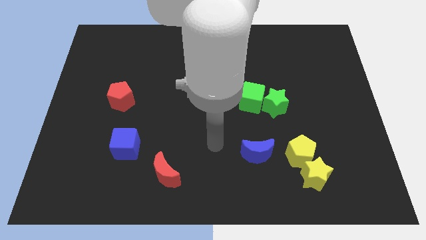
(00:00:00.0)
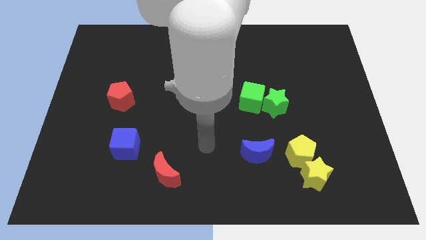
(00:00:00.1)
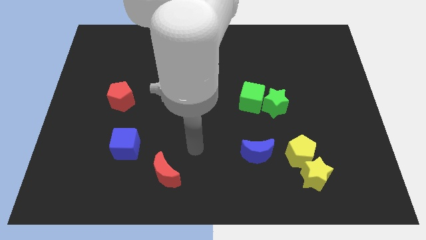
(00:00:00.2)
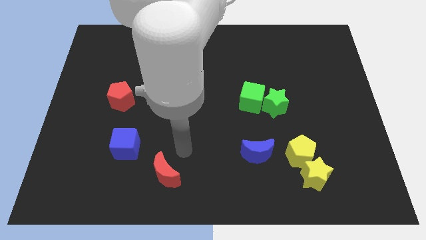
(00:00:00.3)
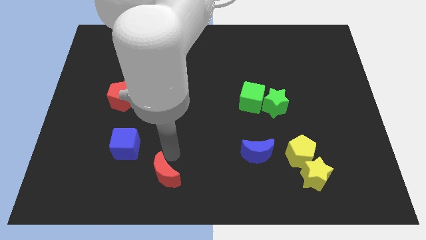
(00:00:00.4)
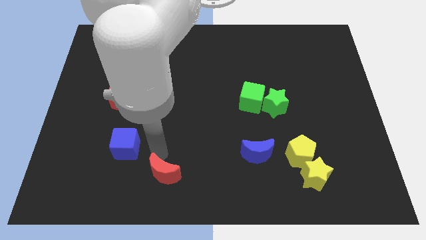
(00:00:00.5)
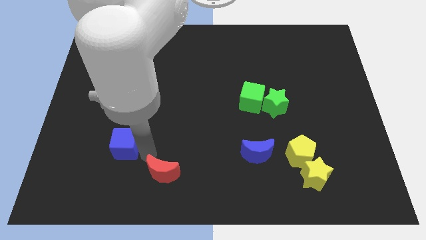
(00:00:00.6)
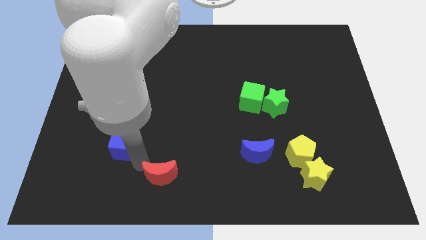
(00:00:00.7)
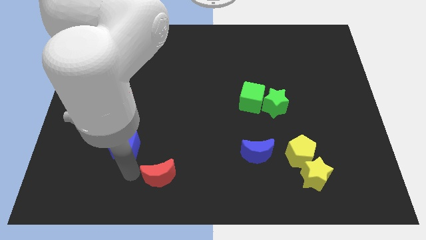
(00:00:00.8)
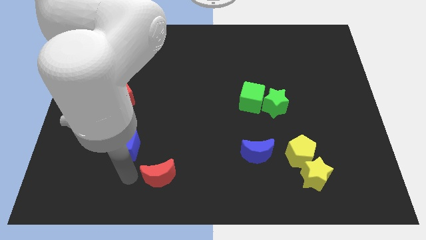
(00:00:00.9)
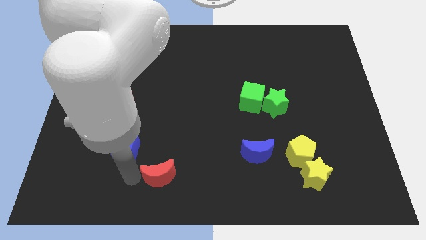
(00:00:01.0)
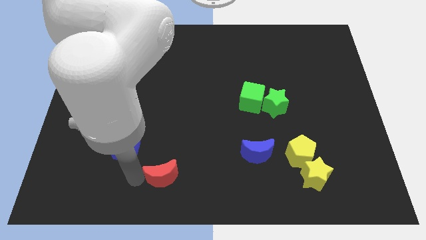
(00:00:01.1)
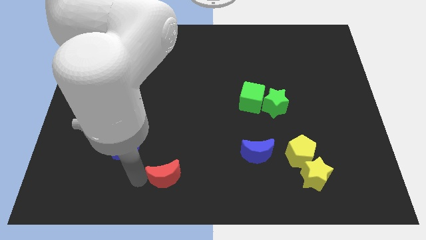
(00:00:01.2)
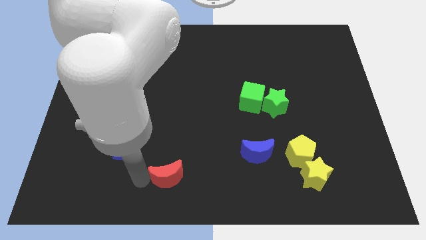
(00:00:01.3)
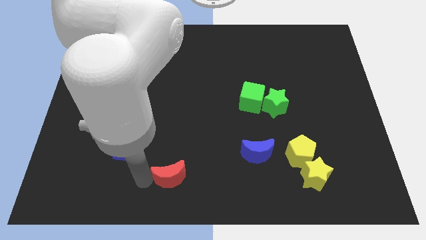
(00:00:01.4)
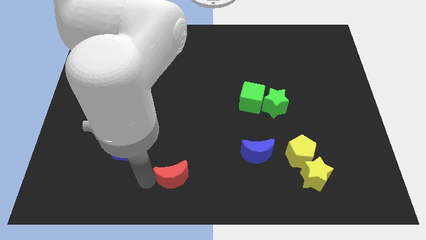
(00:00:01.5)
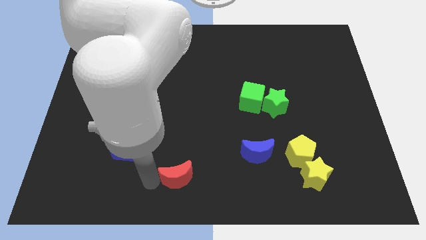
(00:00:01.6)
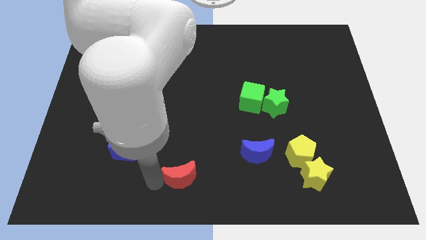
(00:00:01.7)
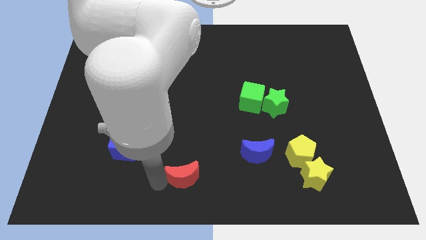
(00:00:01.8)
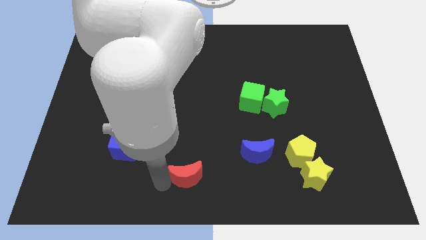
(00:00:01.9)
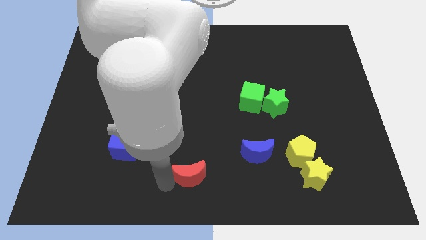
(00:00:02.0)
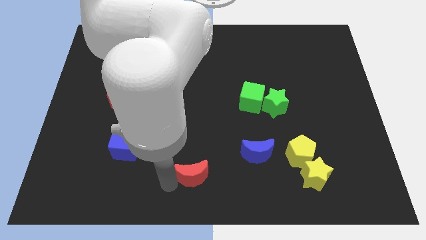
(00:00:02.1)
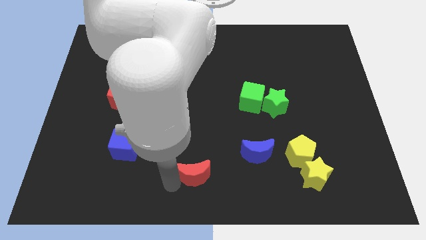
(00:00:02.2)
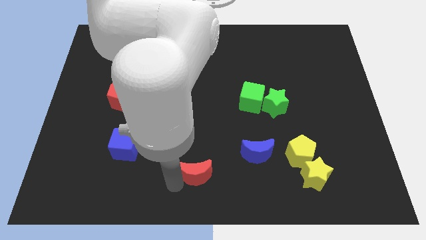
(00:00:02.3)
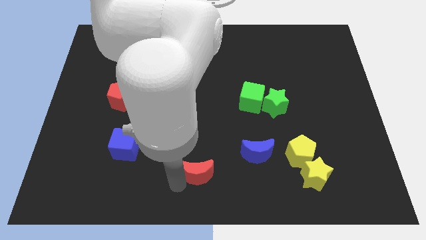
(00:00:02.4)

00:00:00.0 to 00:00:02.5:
move the red moon a bit to the right

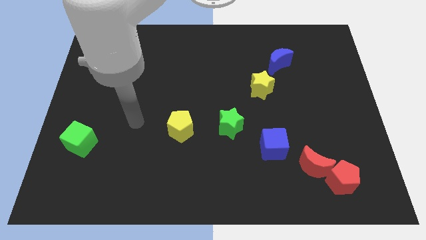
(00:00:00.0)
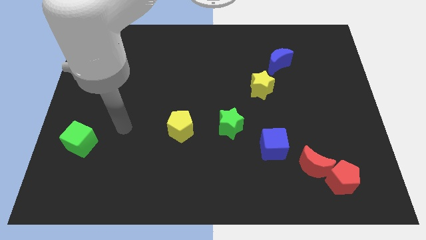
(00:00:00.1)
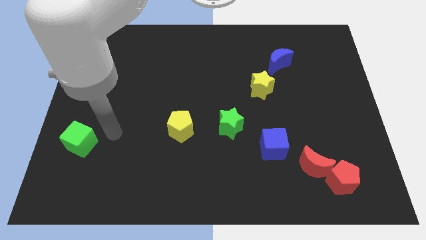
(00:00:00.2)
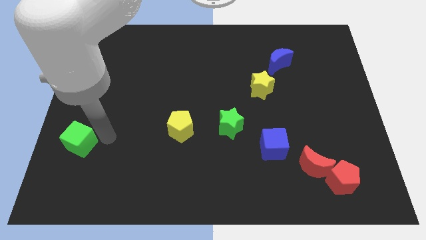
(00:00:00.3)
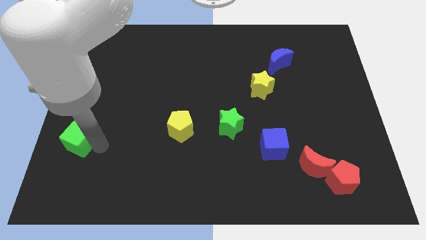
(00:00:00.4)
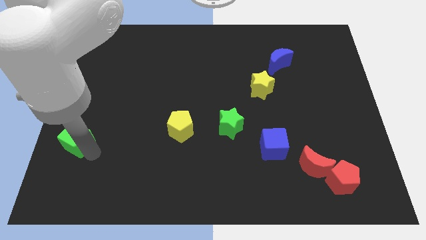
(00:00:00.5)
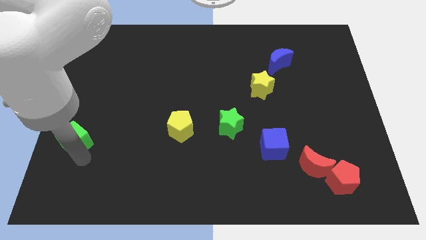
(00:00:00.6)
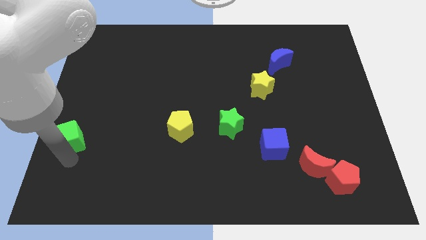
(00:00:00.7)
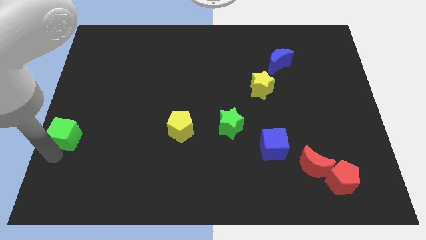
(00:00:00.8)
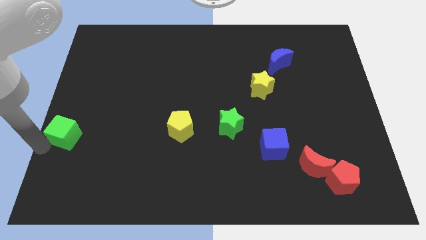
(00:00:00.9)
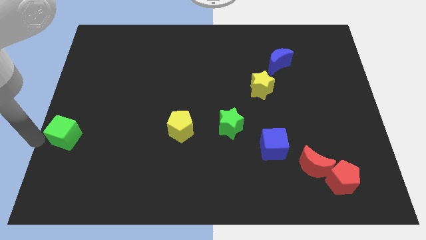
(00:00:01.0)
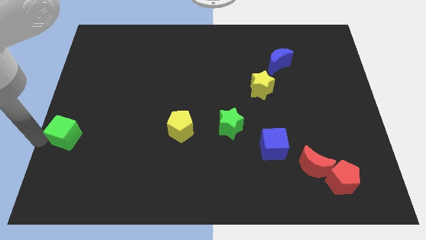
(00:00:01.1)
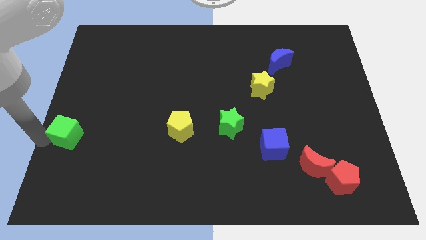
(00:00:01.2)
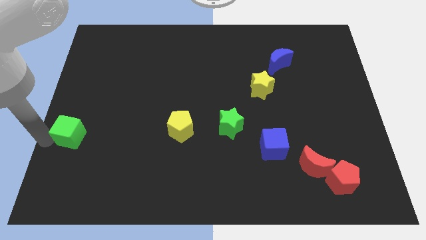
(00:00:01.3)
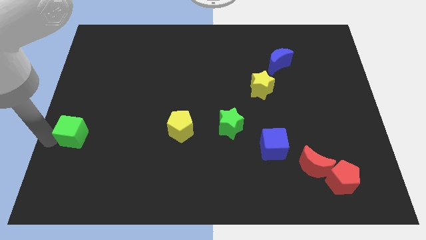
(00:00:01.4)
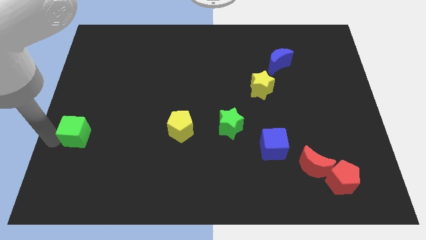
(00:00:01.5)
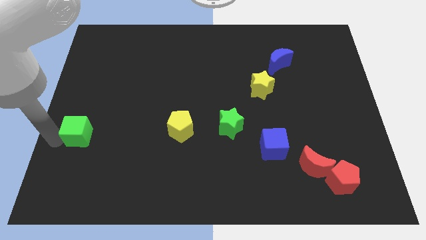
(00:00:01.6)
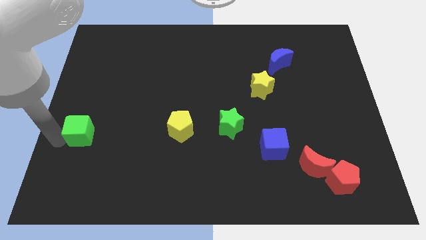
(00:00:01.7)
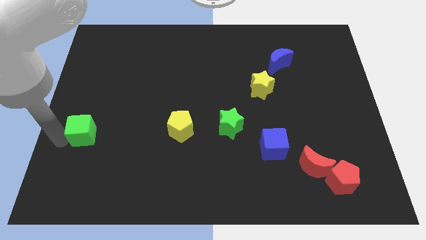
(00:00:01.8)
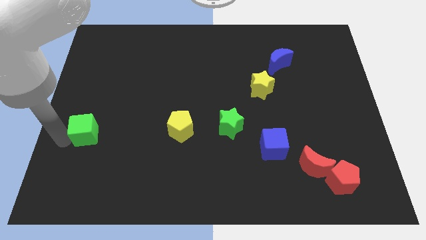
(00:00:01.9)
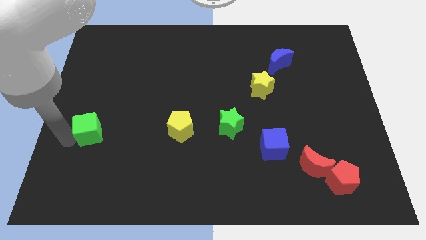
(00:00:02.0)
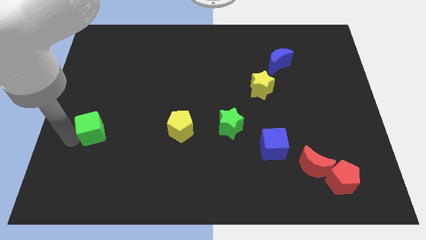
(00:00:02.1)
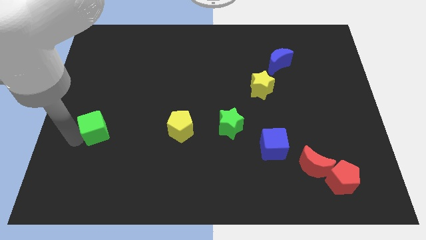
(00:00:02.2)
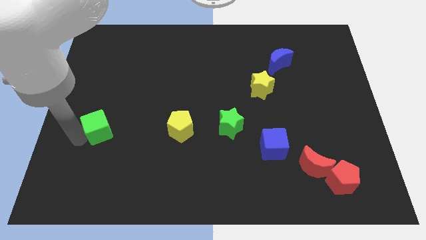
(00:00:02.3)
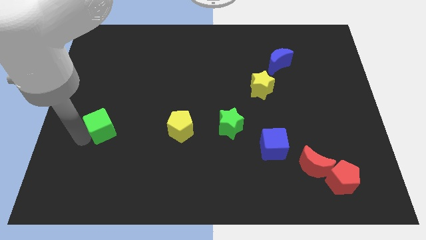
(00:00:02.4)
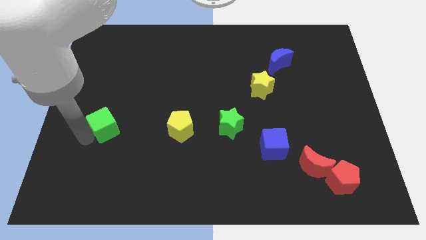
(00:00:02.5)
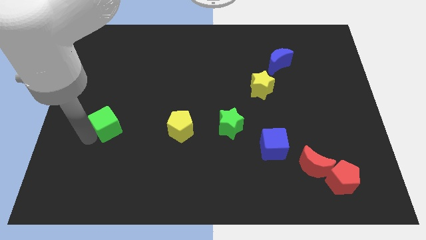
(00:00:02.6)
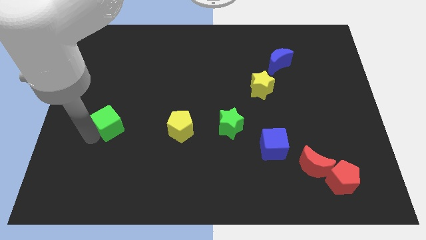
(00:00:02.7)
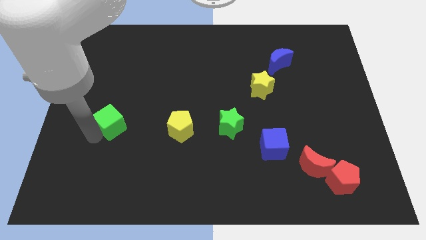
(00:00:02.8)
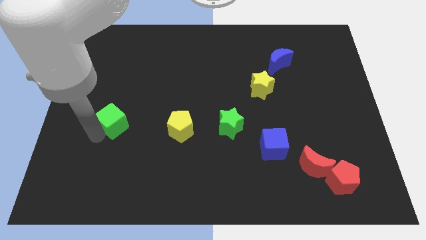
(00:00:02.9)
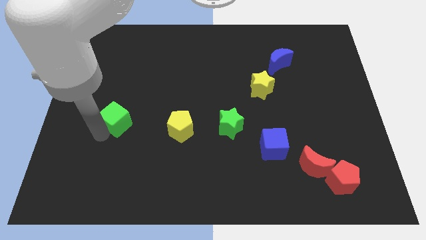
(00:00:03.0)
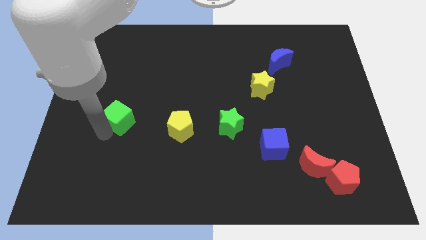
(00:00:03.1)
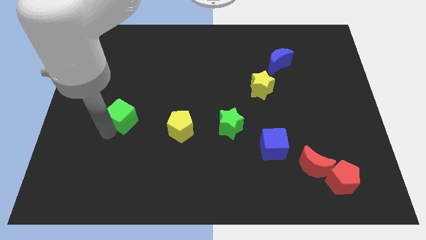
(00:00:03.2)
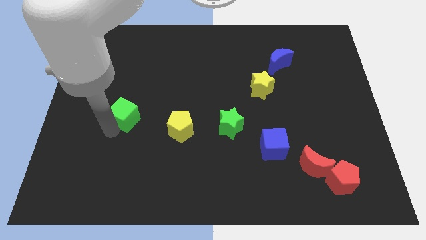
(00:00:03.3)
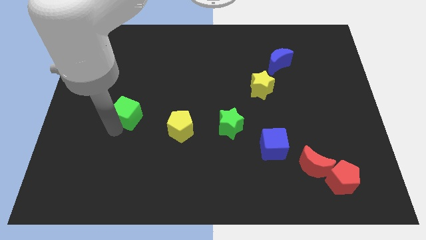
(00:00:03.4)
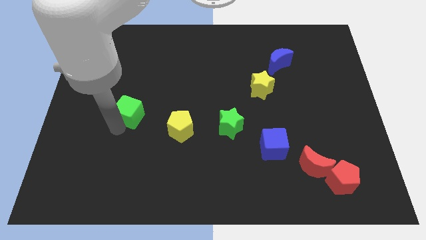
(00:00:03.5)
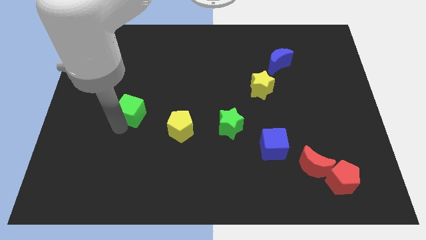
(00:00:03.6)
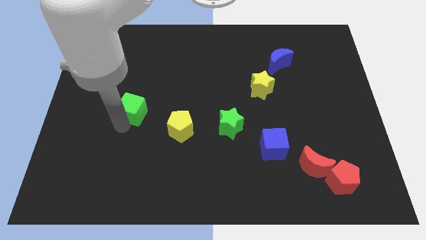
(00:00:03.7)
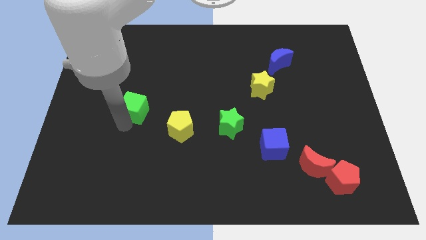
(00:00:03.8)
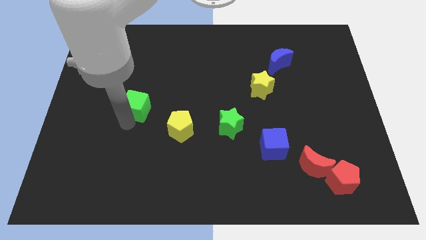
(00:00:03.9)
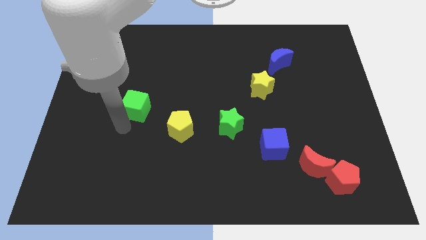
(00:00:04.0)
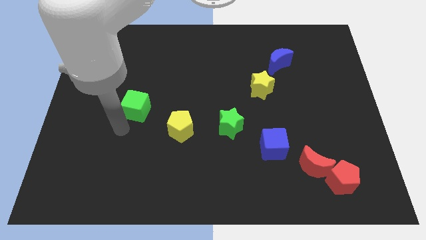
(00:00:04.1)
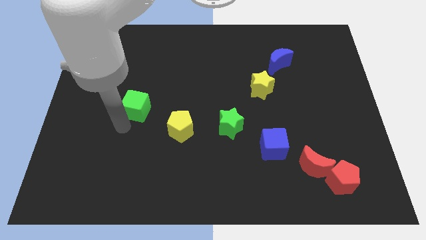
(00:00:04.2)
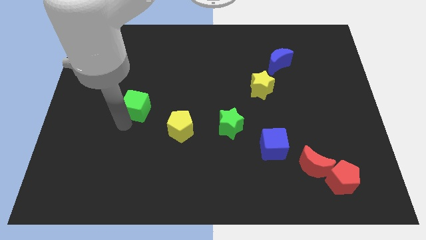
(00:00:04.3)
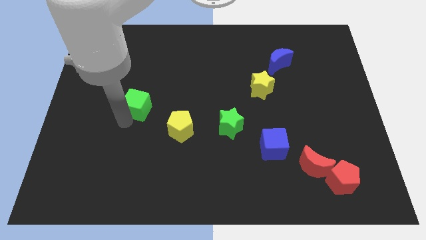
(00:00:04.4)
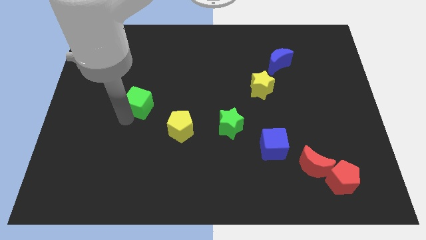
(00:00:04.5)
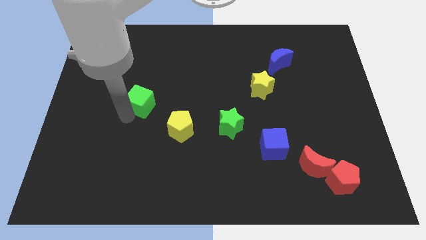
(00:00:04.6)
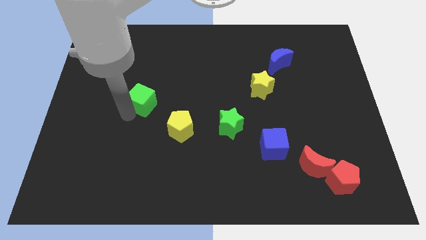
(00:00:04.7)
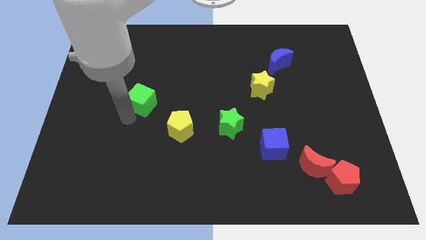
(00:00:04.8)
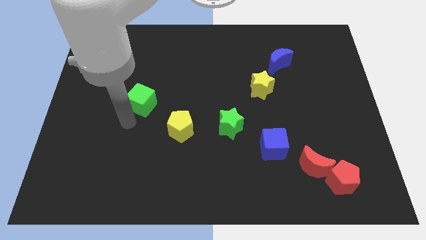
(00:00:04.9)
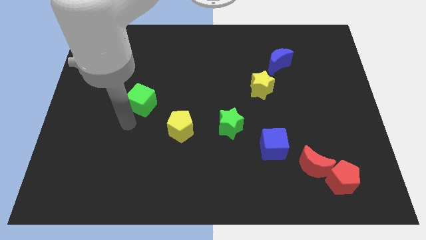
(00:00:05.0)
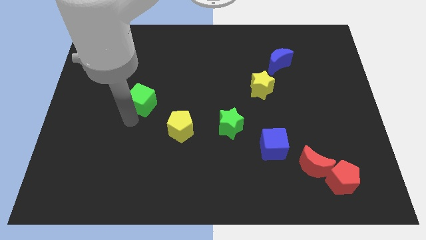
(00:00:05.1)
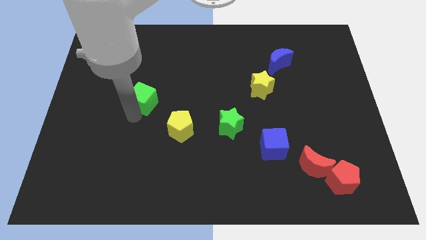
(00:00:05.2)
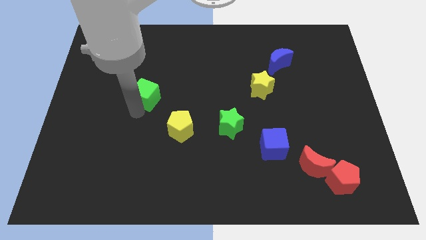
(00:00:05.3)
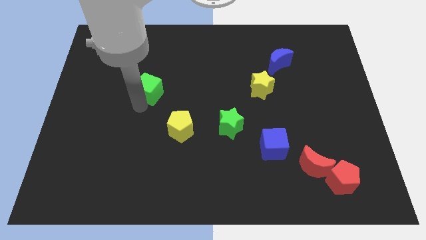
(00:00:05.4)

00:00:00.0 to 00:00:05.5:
slide the green cube up and right diagonally

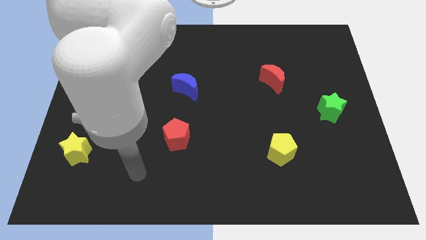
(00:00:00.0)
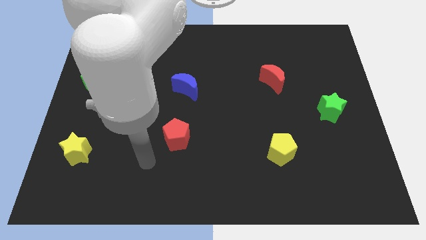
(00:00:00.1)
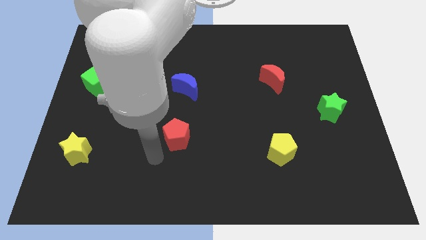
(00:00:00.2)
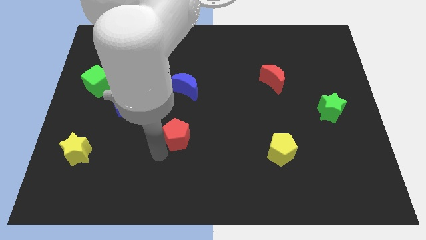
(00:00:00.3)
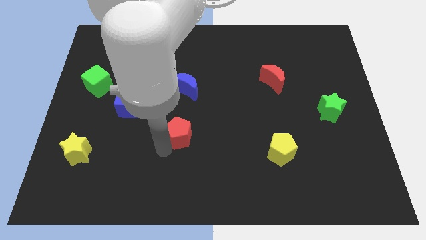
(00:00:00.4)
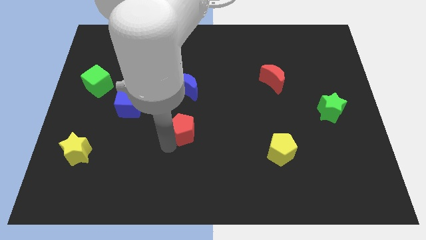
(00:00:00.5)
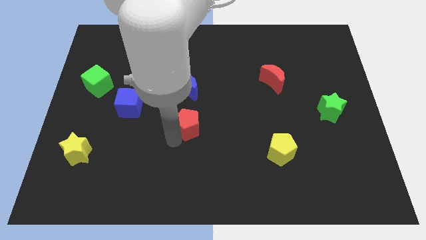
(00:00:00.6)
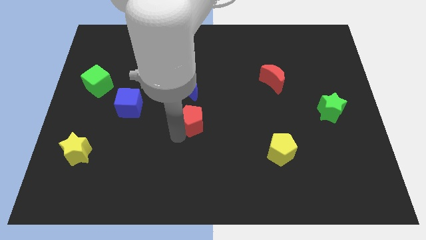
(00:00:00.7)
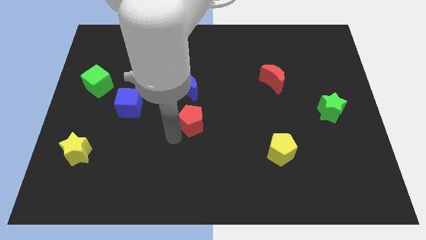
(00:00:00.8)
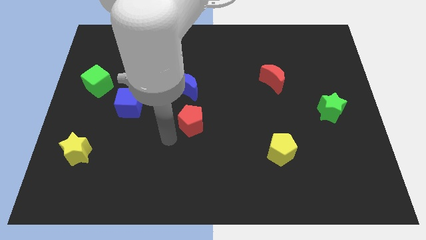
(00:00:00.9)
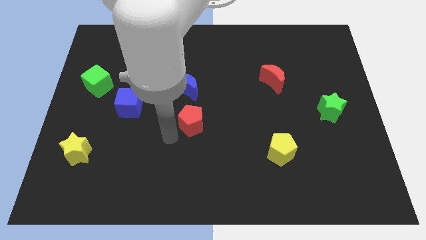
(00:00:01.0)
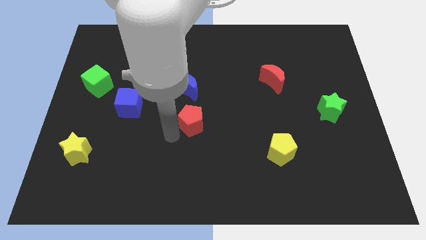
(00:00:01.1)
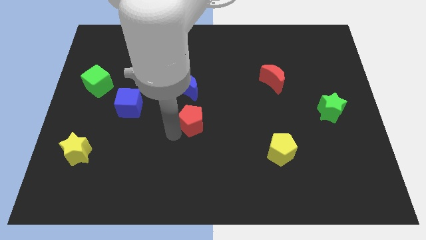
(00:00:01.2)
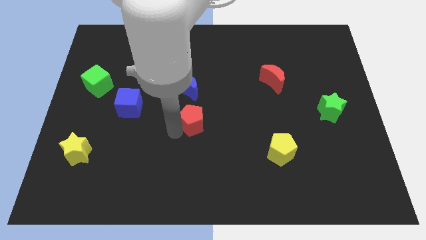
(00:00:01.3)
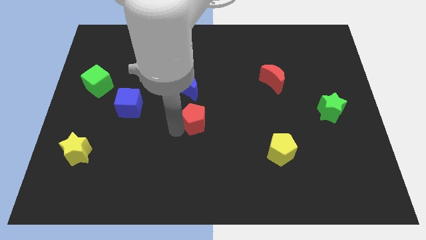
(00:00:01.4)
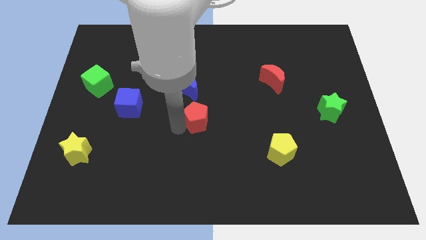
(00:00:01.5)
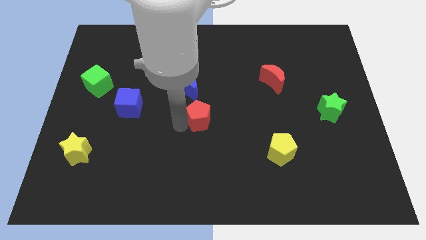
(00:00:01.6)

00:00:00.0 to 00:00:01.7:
move the red pentagon somewhat upwards and to the right diagonally
